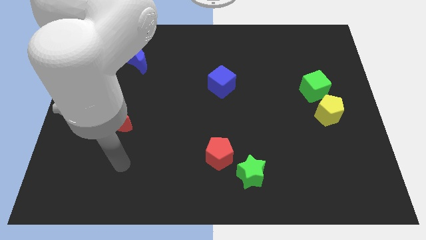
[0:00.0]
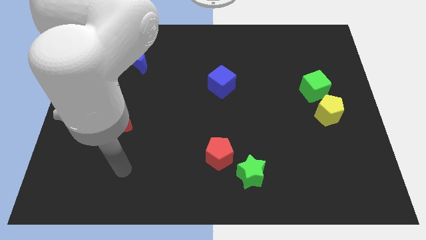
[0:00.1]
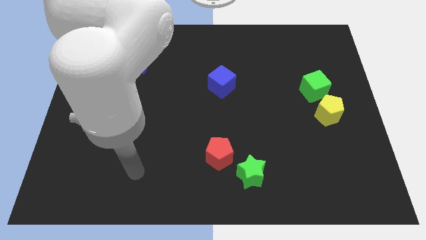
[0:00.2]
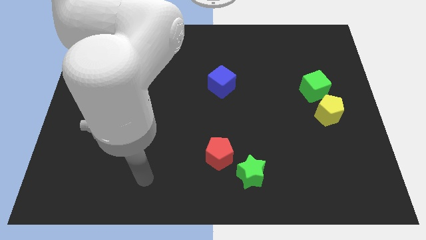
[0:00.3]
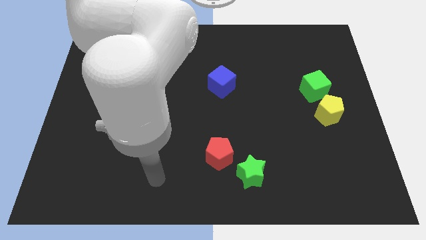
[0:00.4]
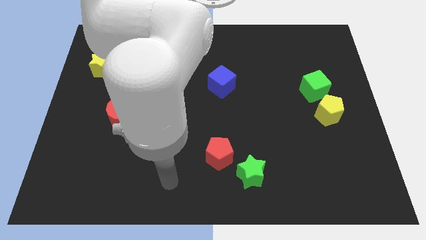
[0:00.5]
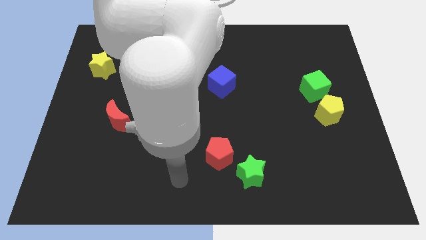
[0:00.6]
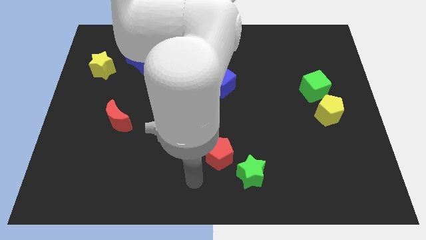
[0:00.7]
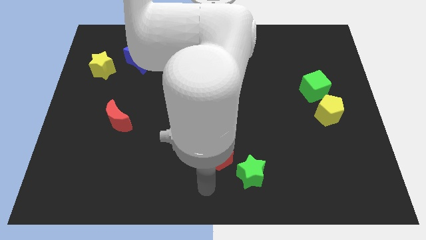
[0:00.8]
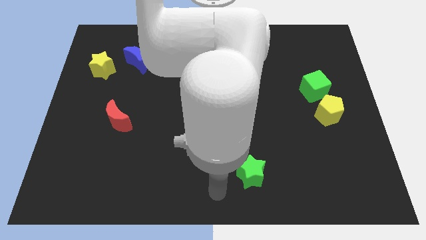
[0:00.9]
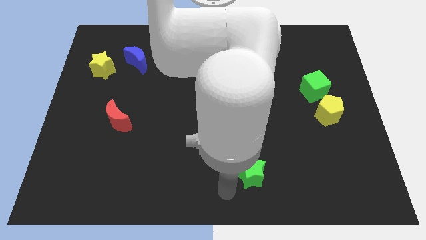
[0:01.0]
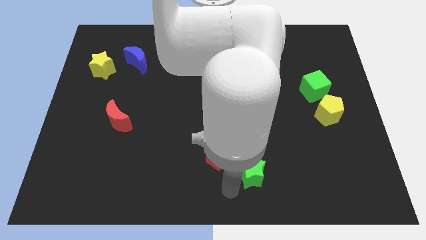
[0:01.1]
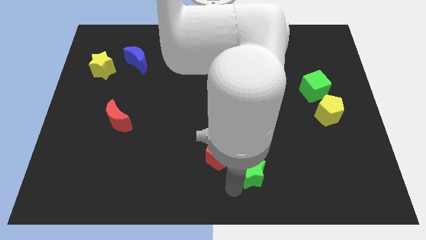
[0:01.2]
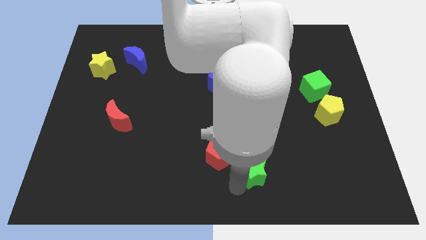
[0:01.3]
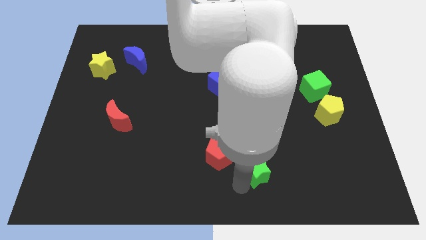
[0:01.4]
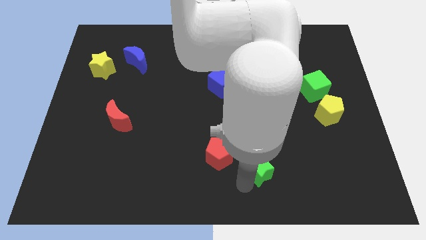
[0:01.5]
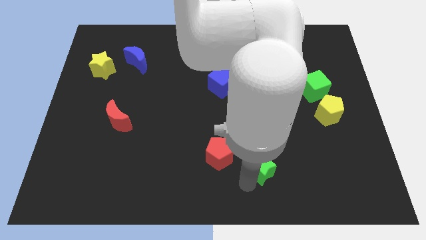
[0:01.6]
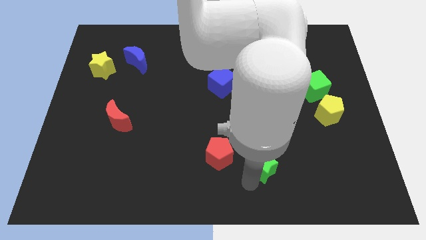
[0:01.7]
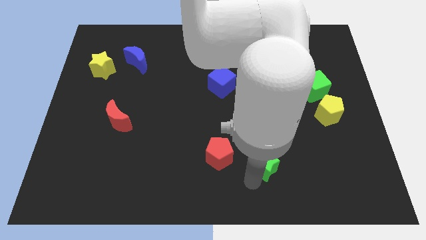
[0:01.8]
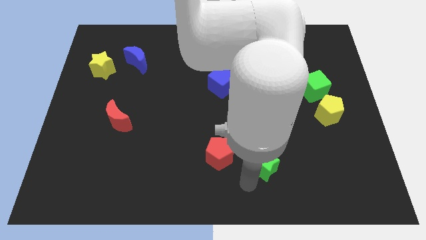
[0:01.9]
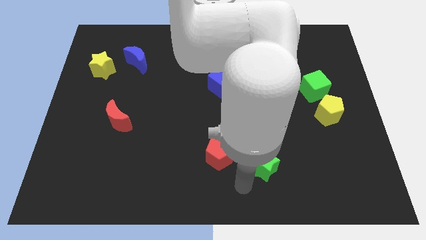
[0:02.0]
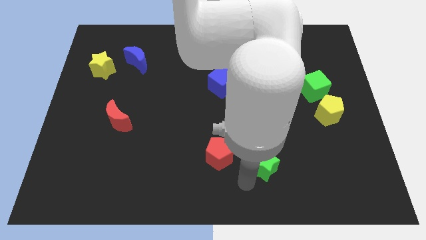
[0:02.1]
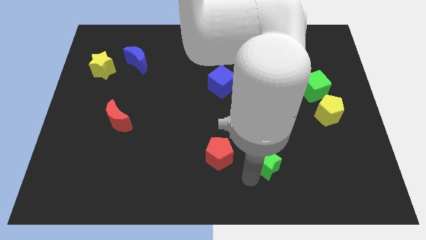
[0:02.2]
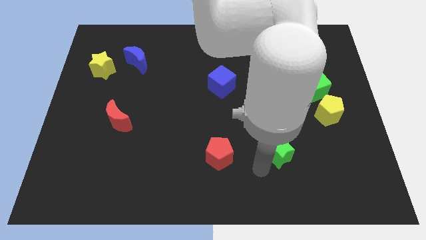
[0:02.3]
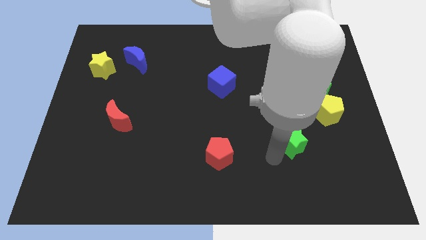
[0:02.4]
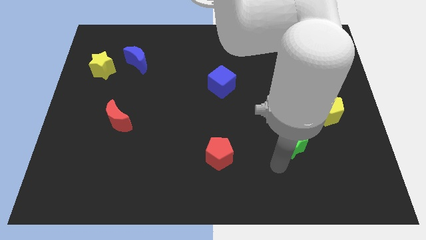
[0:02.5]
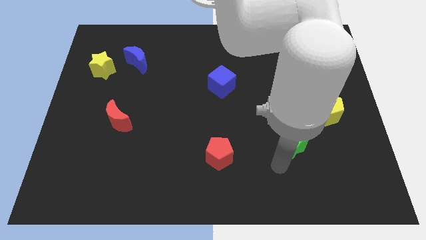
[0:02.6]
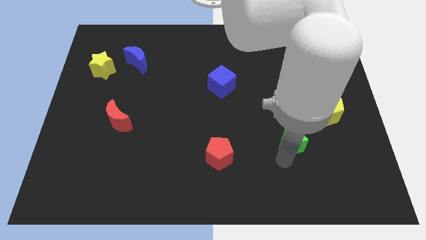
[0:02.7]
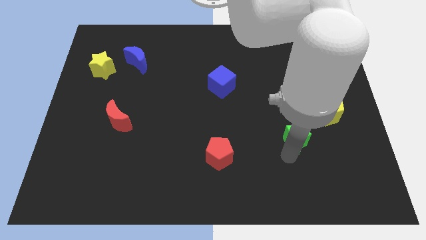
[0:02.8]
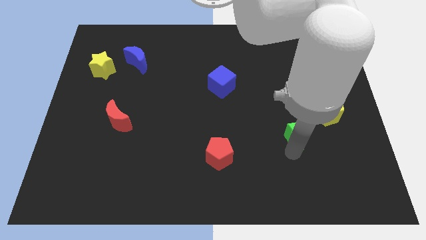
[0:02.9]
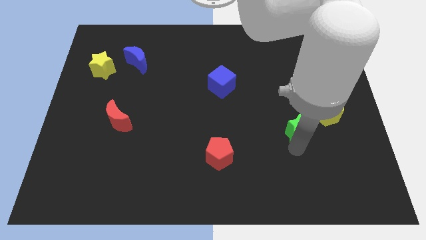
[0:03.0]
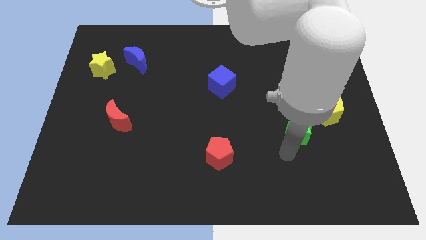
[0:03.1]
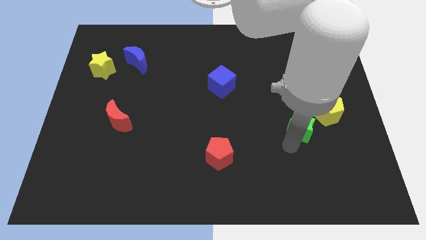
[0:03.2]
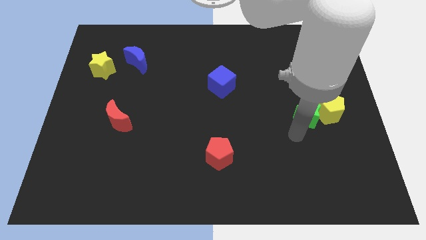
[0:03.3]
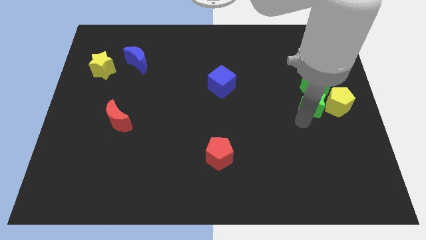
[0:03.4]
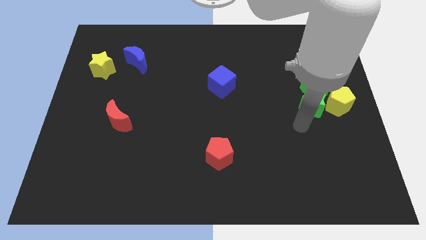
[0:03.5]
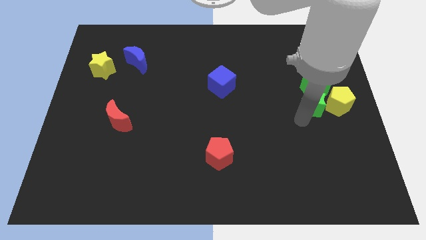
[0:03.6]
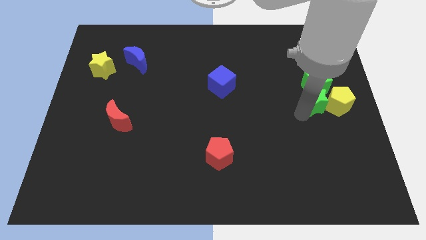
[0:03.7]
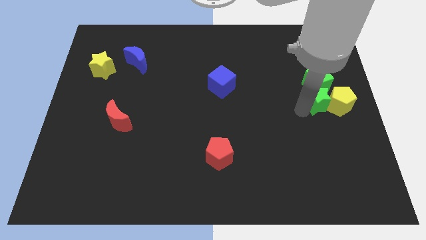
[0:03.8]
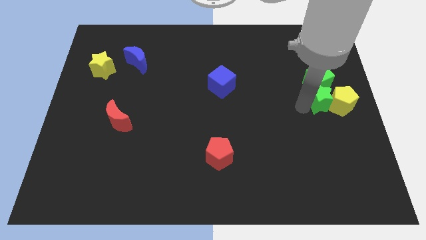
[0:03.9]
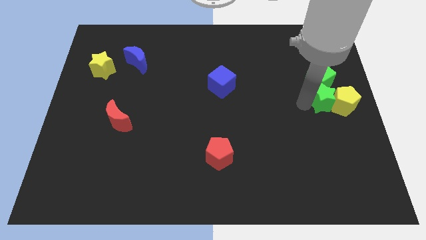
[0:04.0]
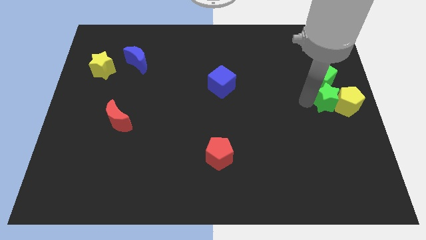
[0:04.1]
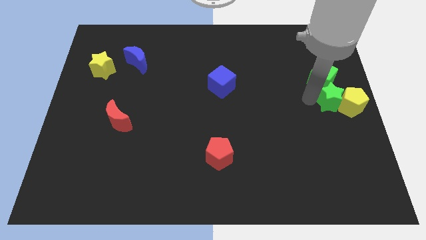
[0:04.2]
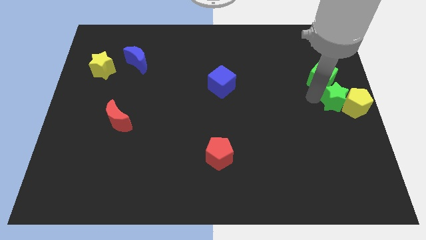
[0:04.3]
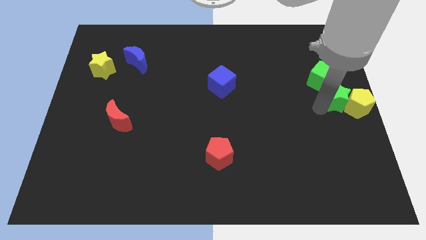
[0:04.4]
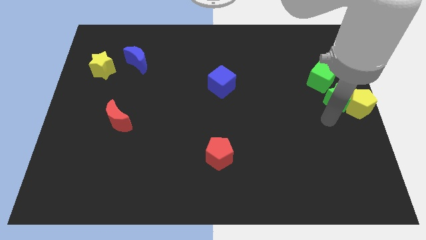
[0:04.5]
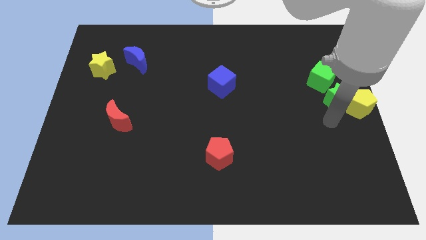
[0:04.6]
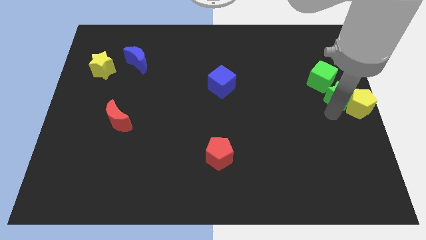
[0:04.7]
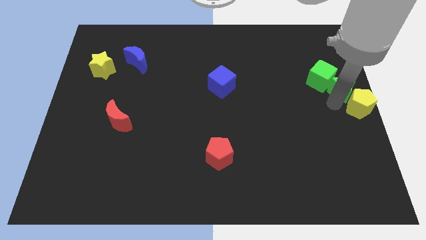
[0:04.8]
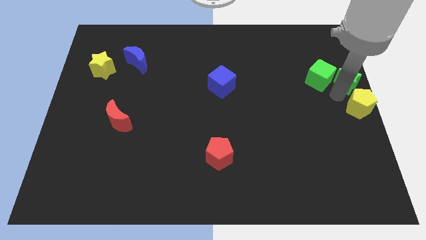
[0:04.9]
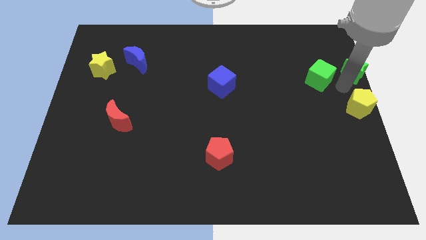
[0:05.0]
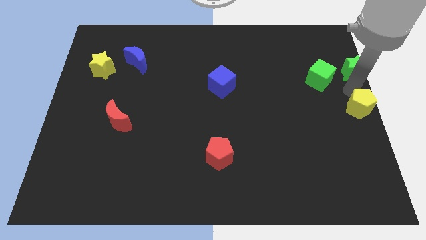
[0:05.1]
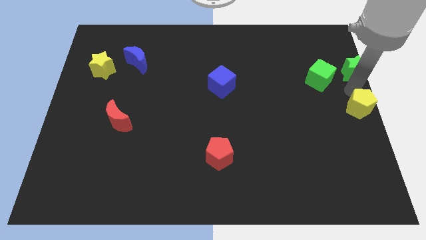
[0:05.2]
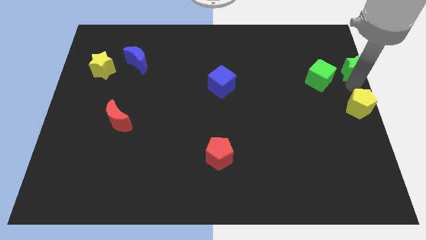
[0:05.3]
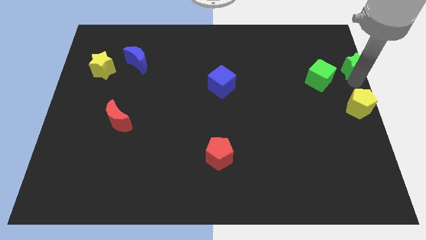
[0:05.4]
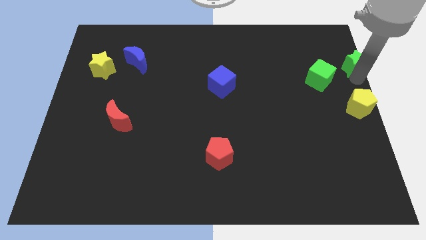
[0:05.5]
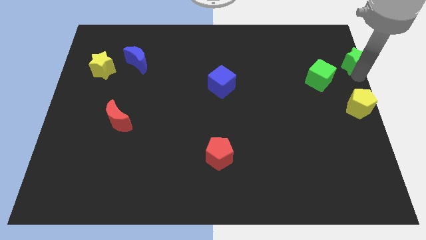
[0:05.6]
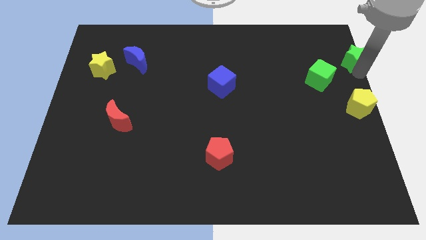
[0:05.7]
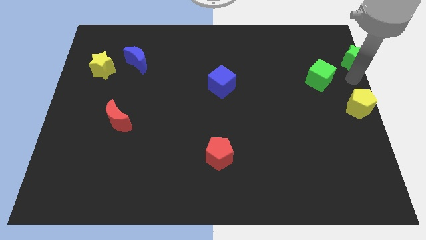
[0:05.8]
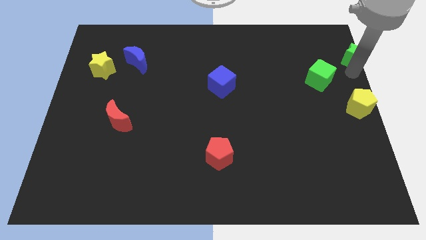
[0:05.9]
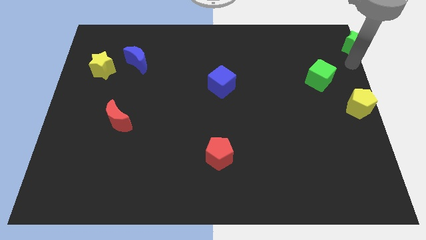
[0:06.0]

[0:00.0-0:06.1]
put the green star to the top right corner
